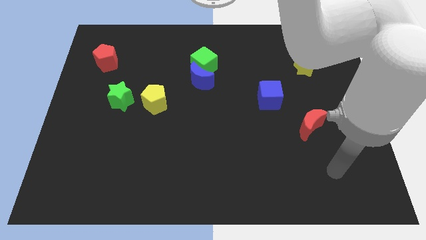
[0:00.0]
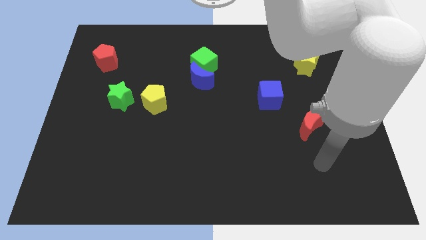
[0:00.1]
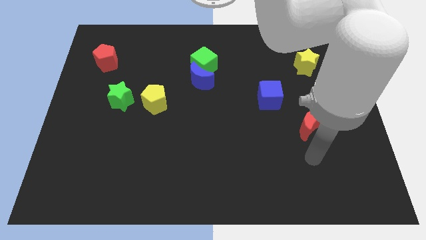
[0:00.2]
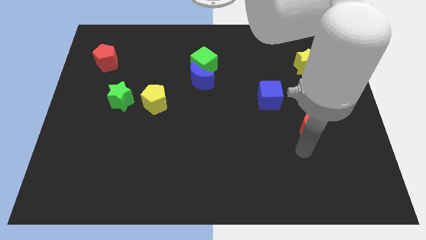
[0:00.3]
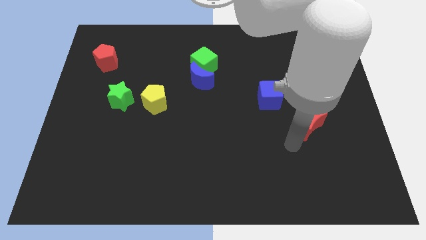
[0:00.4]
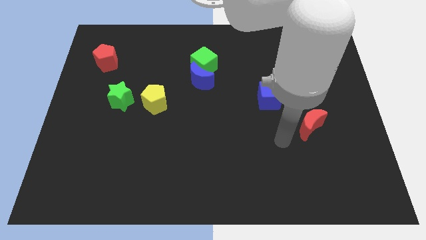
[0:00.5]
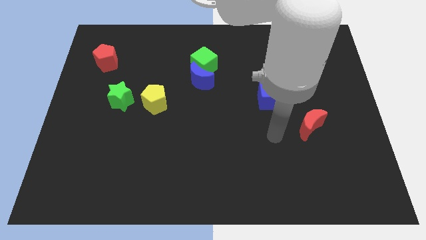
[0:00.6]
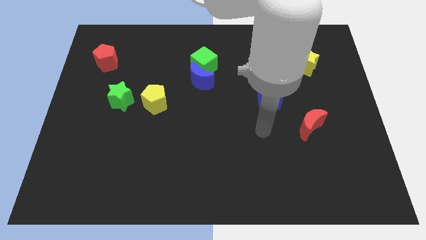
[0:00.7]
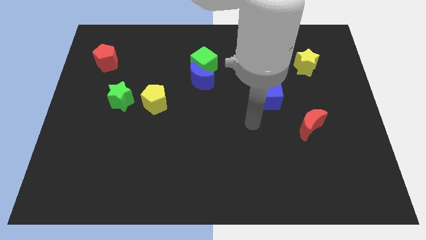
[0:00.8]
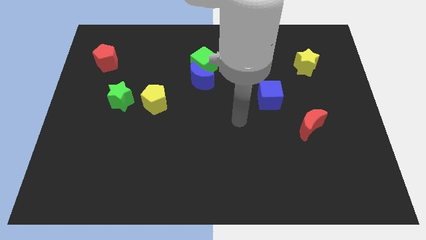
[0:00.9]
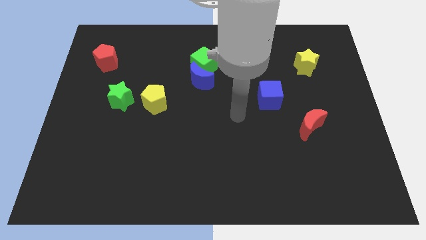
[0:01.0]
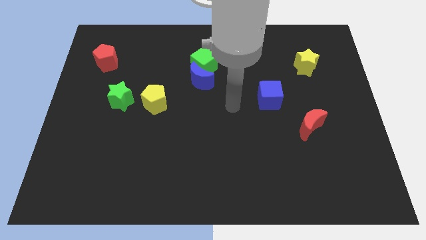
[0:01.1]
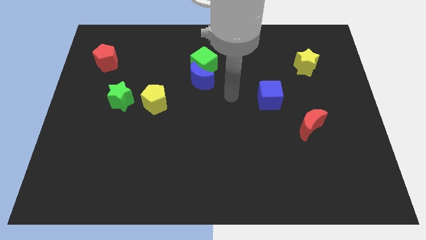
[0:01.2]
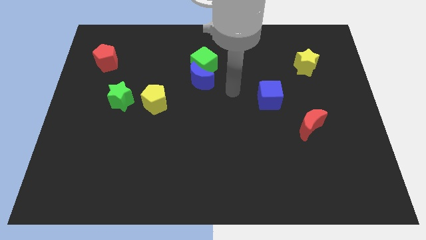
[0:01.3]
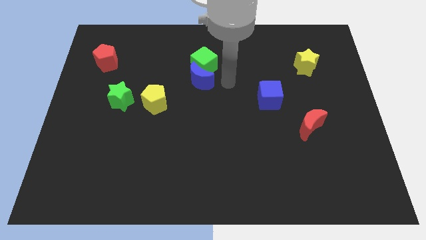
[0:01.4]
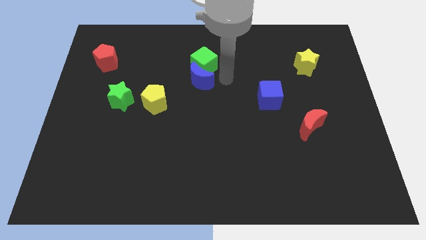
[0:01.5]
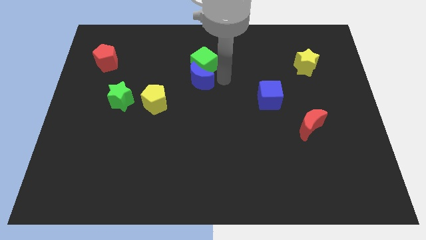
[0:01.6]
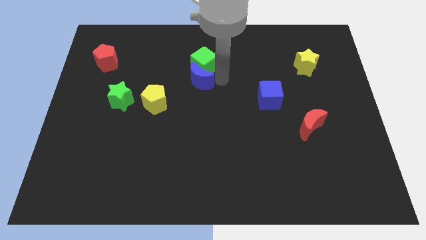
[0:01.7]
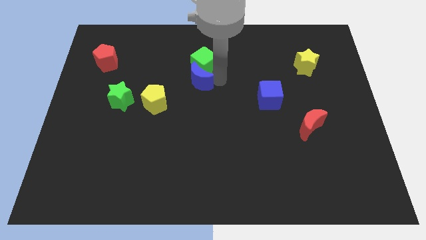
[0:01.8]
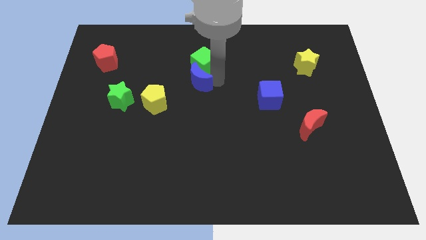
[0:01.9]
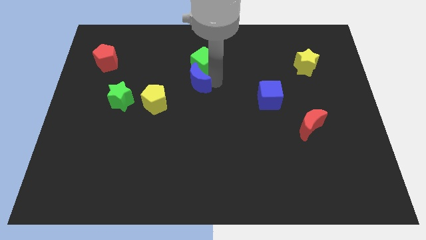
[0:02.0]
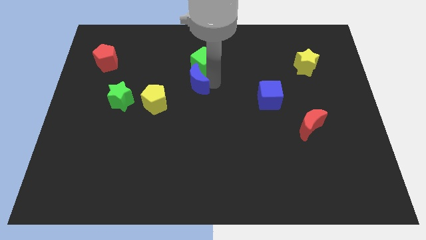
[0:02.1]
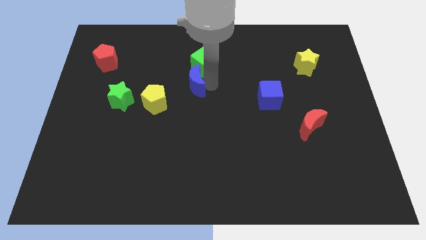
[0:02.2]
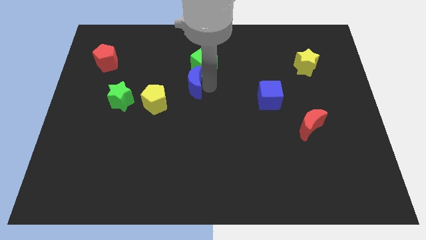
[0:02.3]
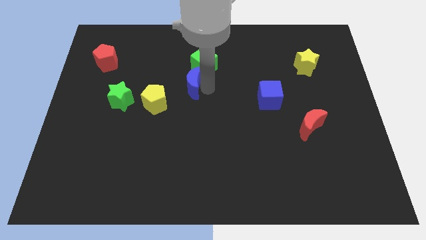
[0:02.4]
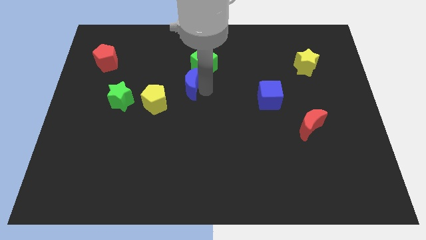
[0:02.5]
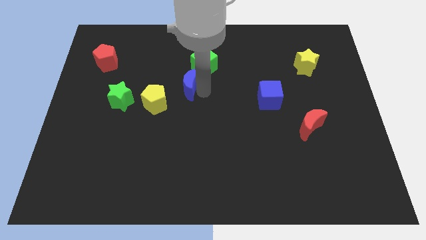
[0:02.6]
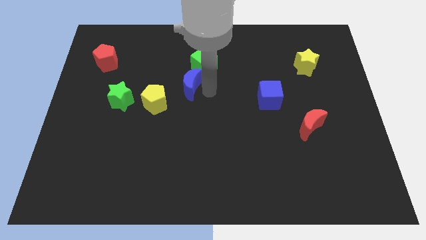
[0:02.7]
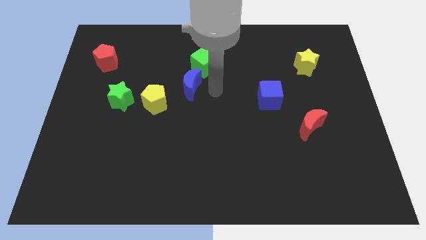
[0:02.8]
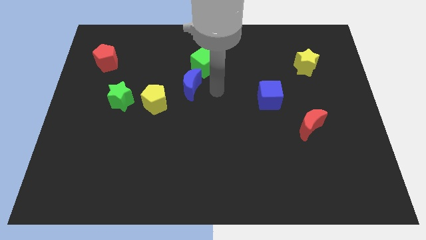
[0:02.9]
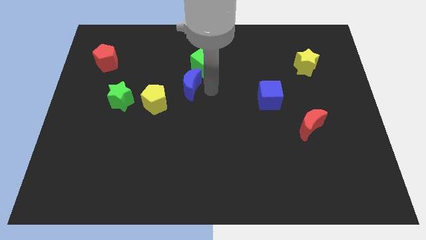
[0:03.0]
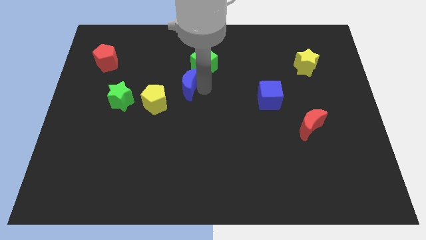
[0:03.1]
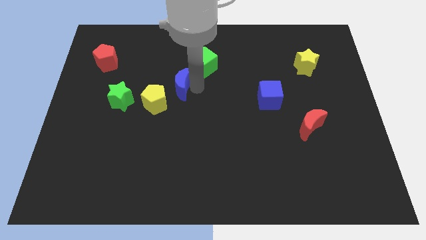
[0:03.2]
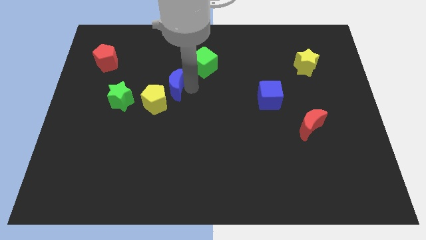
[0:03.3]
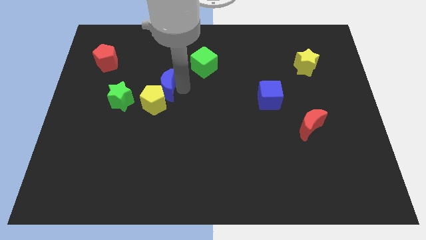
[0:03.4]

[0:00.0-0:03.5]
push the blue moon to the left a little

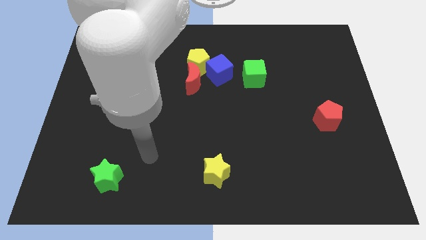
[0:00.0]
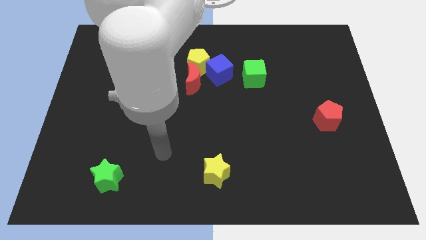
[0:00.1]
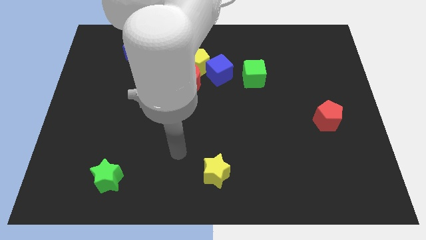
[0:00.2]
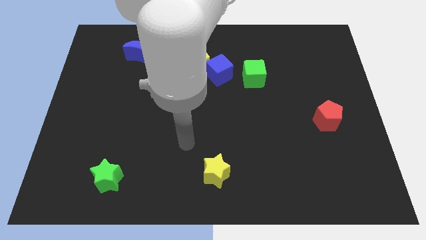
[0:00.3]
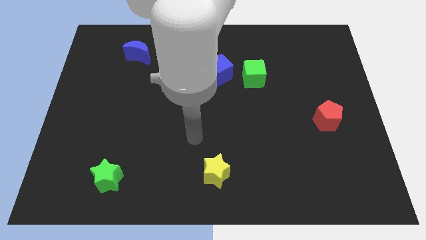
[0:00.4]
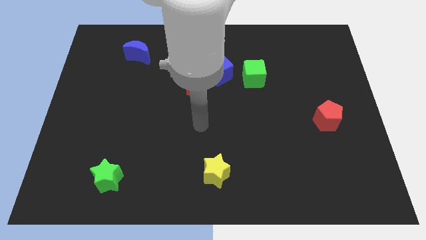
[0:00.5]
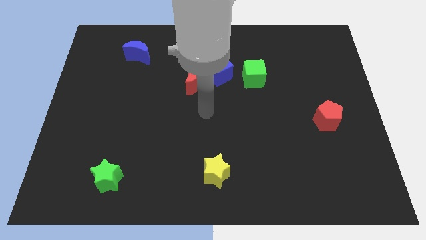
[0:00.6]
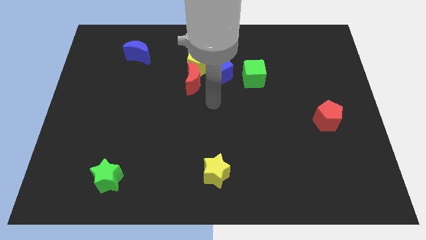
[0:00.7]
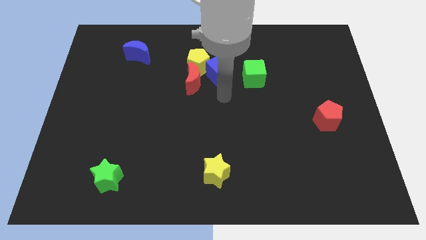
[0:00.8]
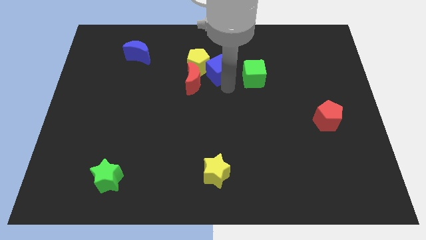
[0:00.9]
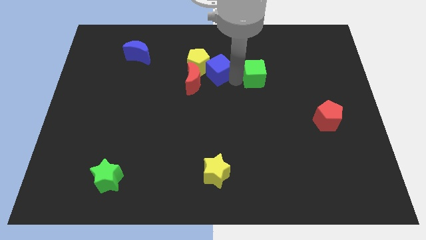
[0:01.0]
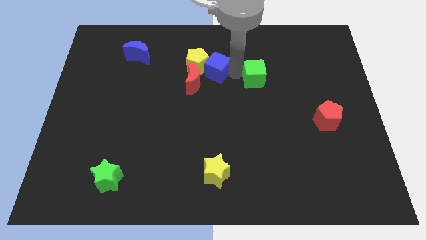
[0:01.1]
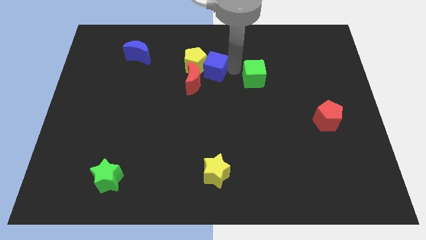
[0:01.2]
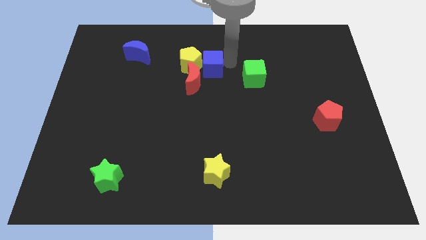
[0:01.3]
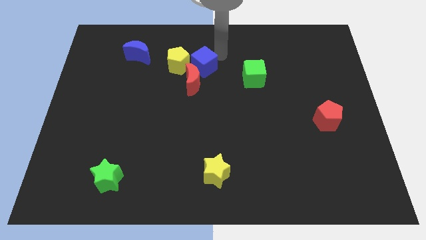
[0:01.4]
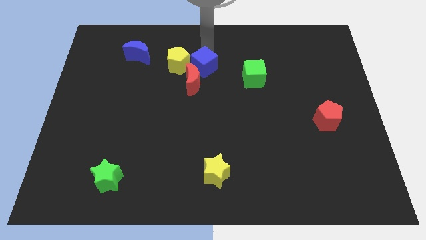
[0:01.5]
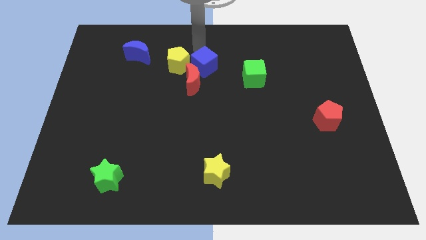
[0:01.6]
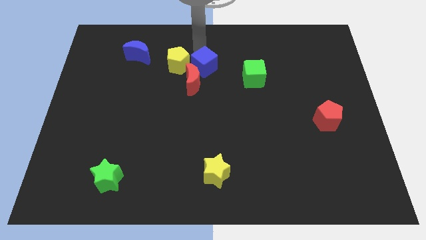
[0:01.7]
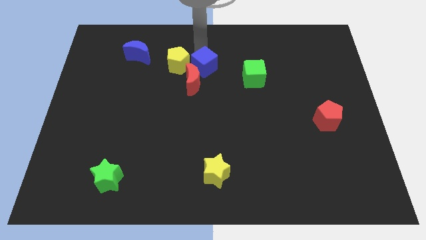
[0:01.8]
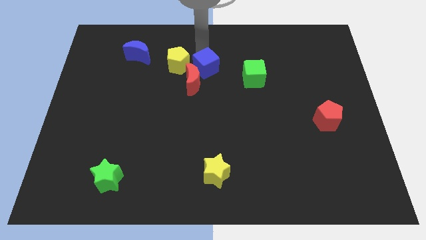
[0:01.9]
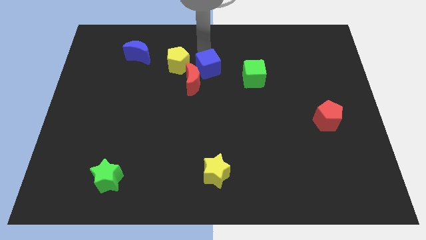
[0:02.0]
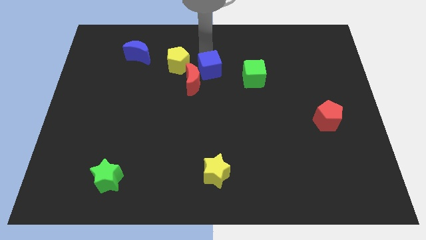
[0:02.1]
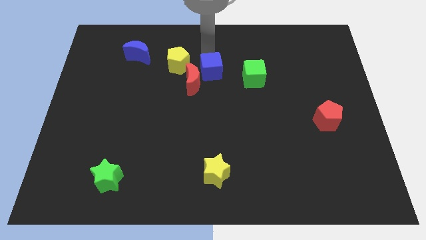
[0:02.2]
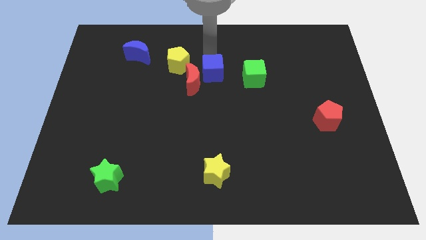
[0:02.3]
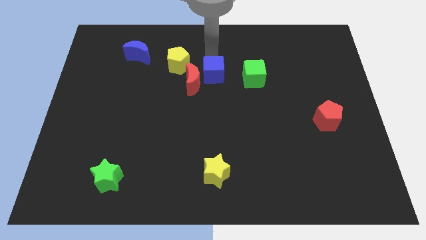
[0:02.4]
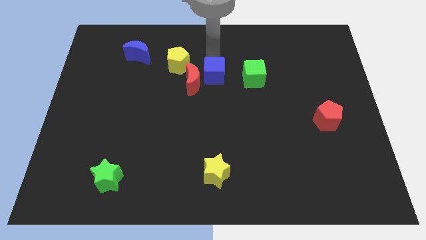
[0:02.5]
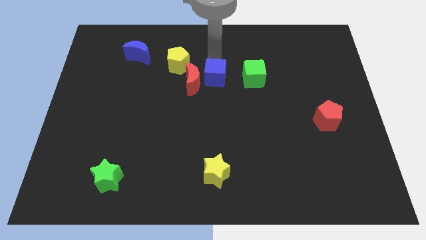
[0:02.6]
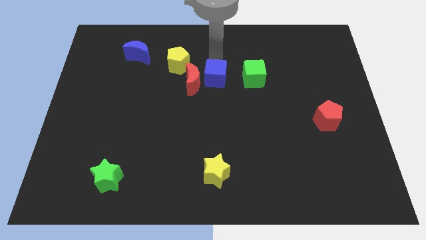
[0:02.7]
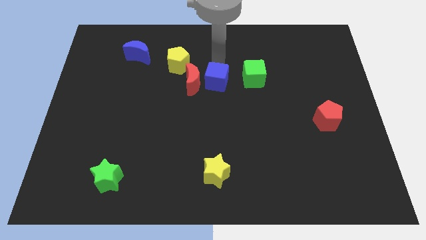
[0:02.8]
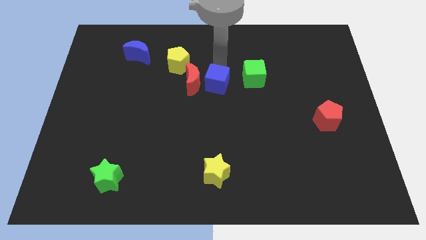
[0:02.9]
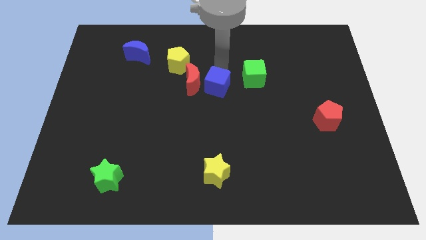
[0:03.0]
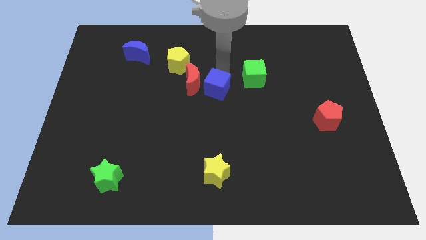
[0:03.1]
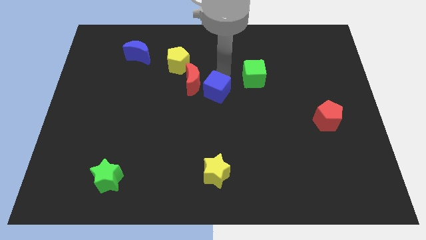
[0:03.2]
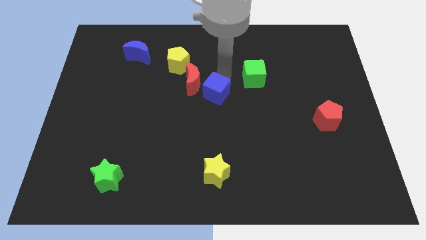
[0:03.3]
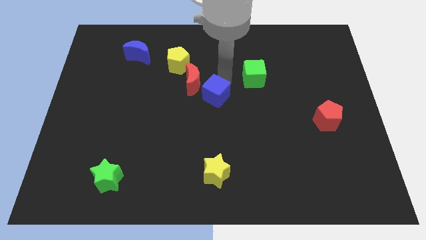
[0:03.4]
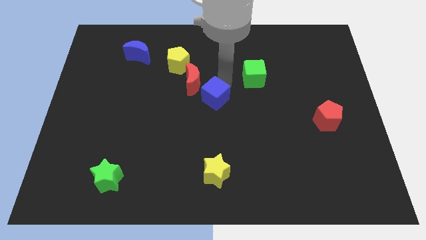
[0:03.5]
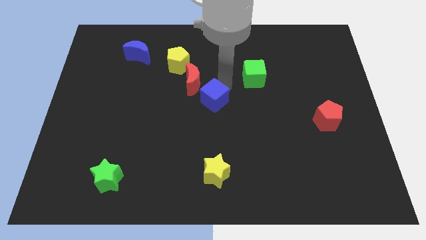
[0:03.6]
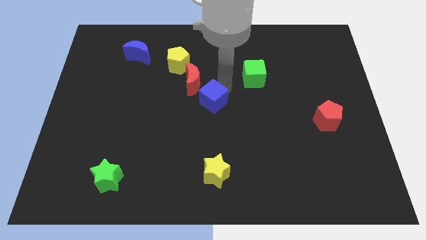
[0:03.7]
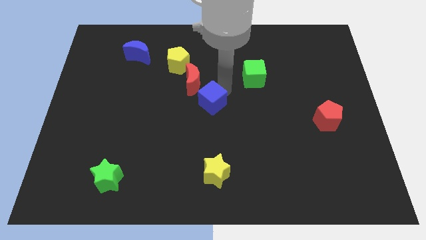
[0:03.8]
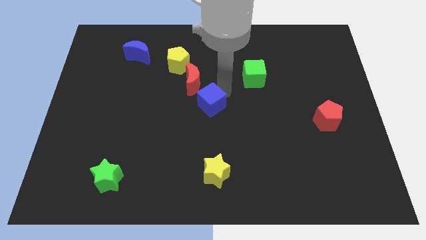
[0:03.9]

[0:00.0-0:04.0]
slide the blue cube slightly down and then to the left

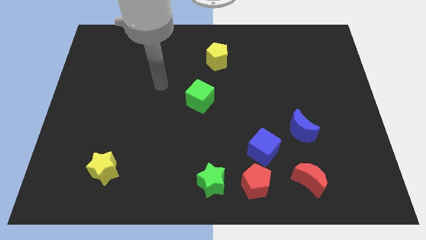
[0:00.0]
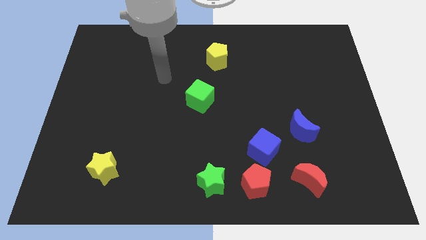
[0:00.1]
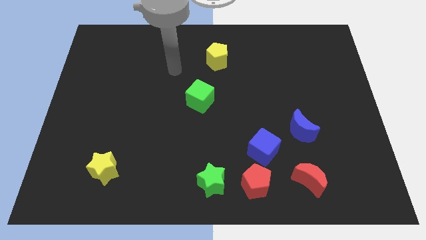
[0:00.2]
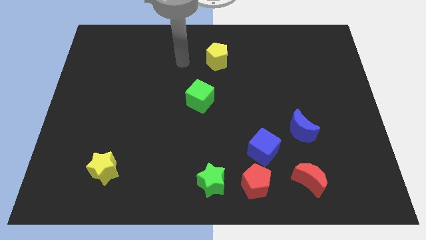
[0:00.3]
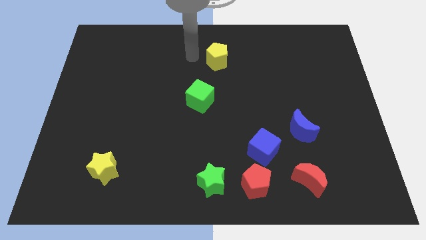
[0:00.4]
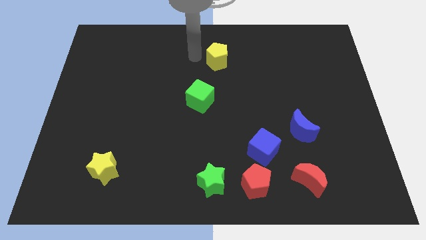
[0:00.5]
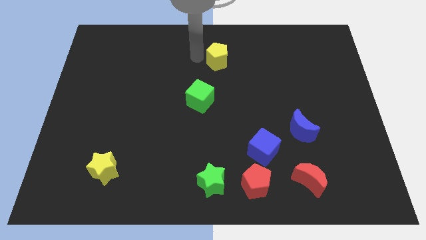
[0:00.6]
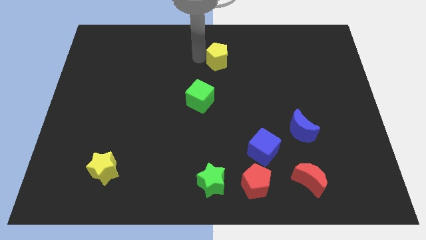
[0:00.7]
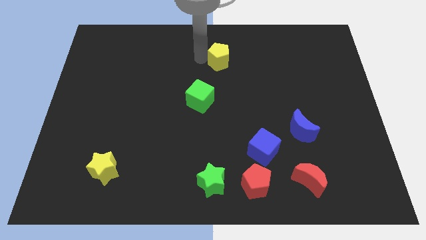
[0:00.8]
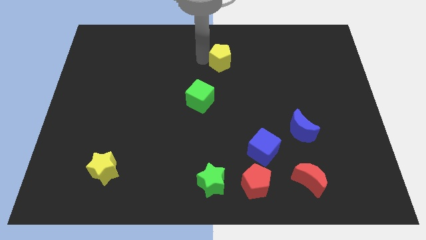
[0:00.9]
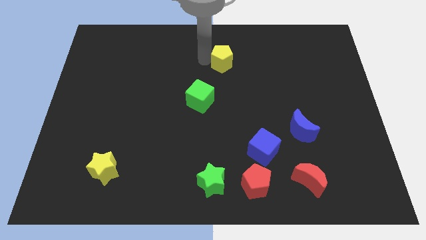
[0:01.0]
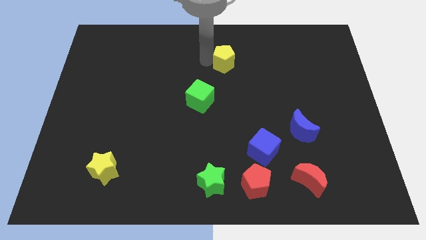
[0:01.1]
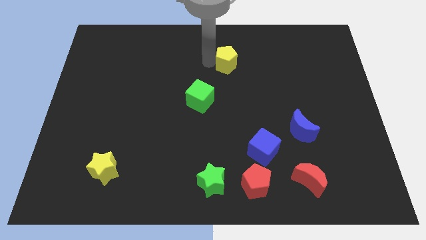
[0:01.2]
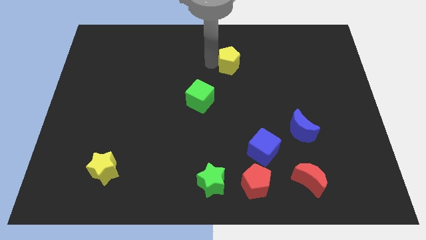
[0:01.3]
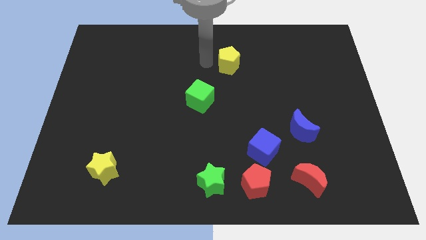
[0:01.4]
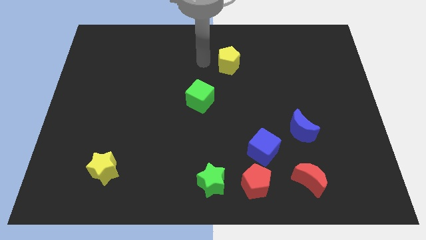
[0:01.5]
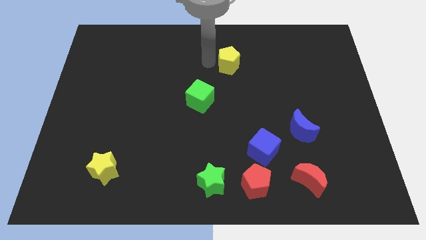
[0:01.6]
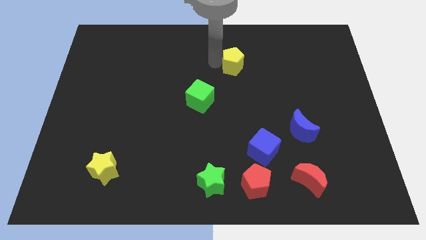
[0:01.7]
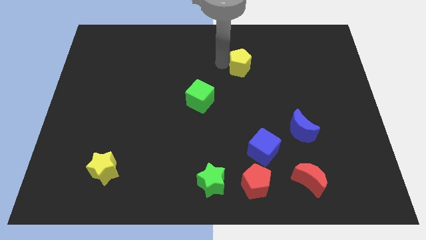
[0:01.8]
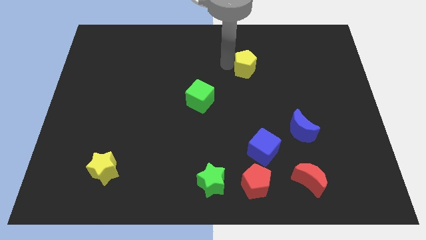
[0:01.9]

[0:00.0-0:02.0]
slide the yellow pentagon a bit to the right
